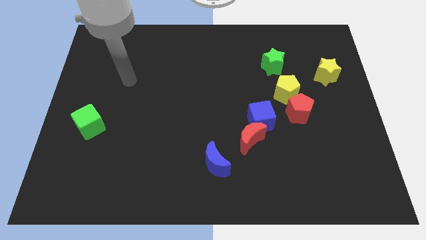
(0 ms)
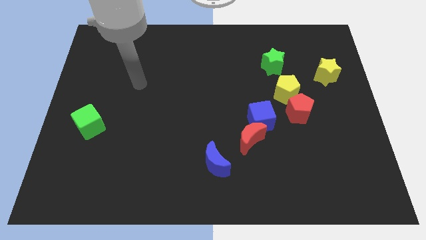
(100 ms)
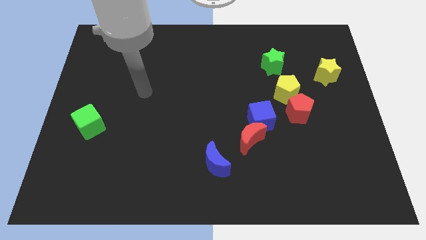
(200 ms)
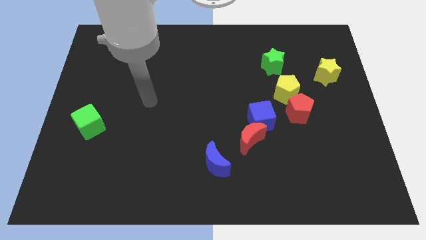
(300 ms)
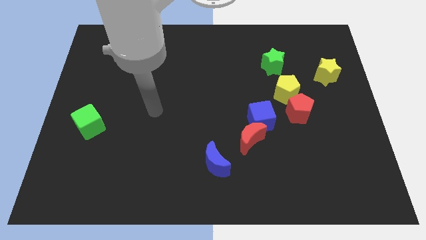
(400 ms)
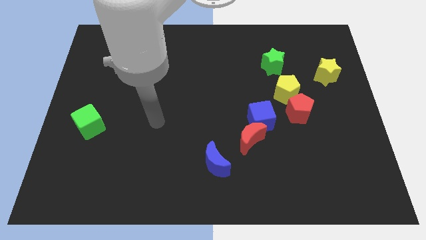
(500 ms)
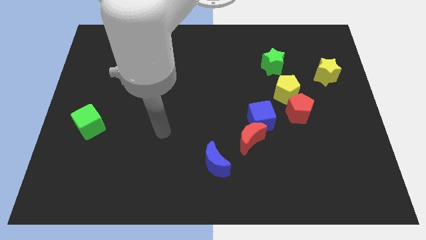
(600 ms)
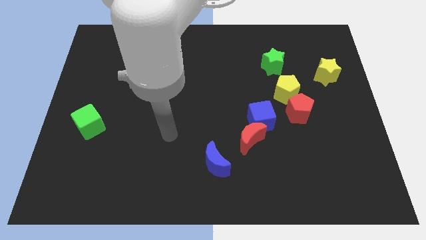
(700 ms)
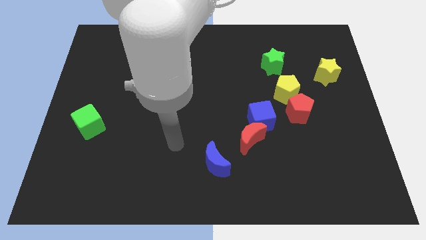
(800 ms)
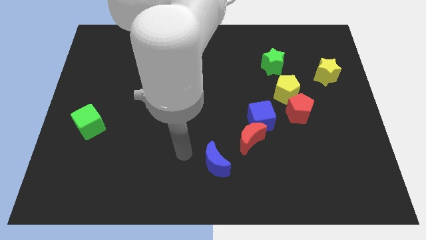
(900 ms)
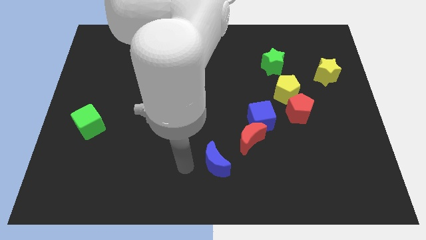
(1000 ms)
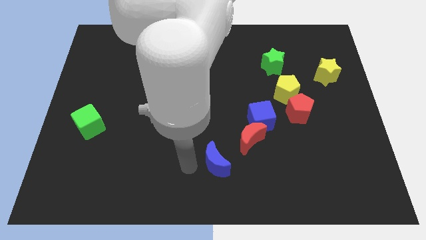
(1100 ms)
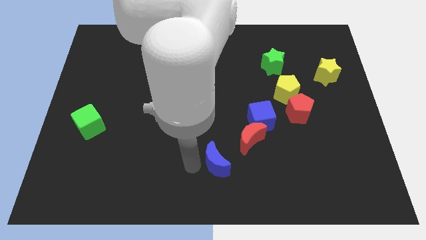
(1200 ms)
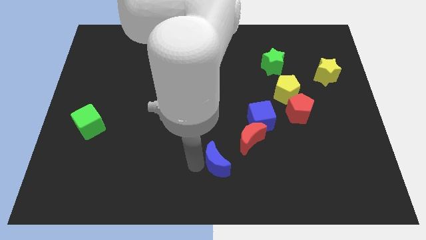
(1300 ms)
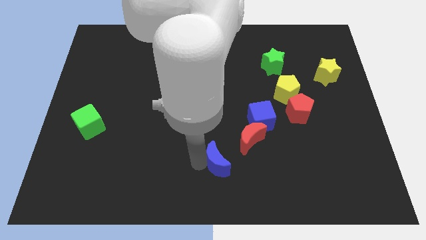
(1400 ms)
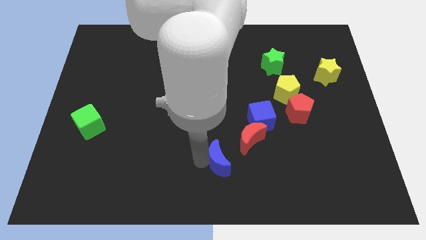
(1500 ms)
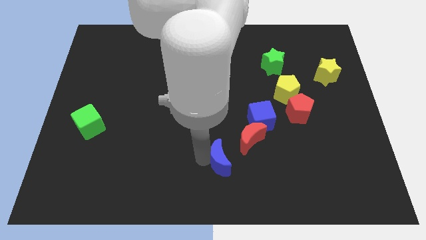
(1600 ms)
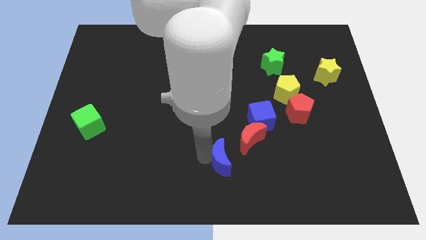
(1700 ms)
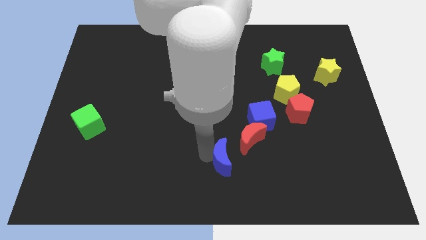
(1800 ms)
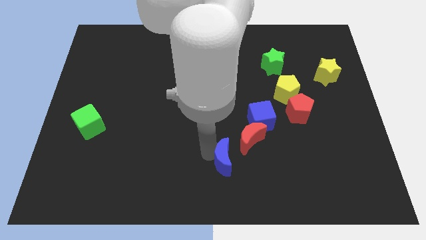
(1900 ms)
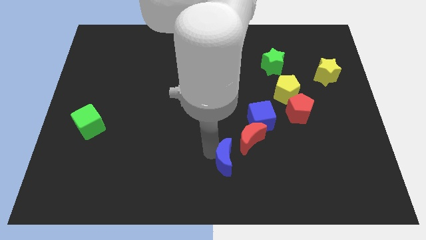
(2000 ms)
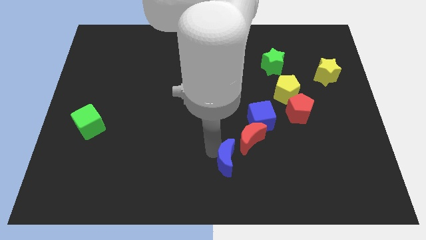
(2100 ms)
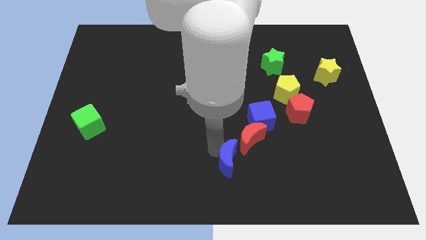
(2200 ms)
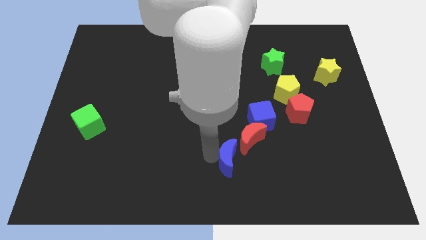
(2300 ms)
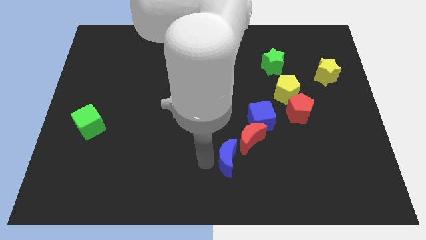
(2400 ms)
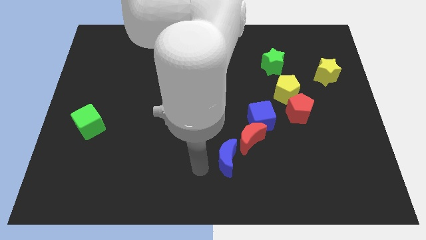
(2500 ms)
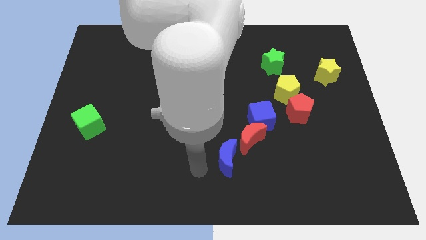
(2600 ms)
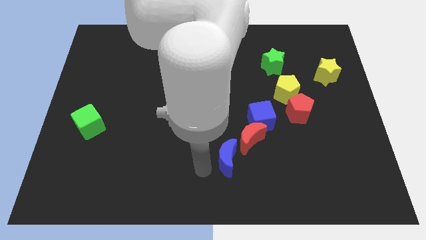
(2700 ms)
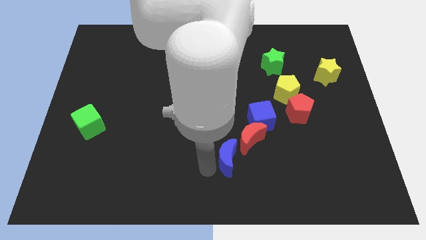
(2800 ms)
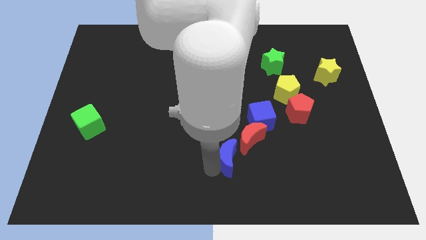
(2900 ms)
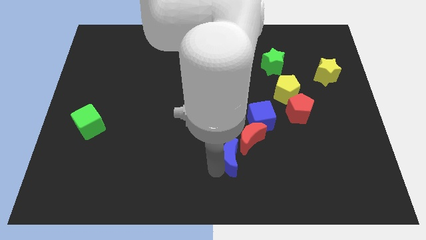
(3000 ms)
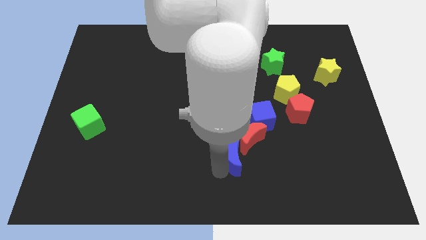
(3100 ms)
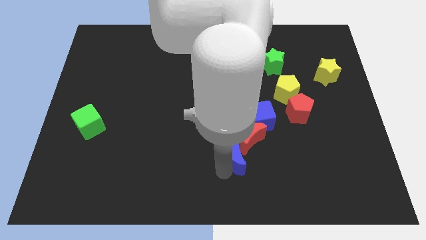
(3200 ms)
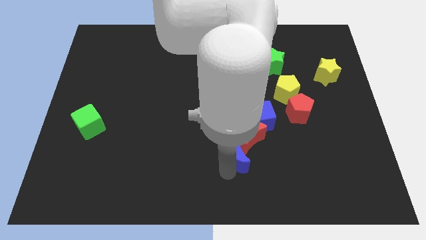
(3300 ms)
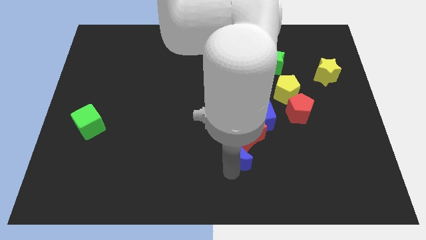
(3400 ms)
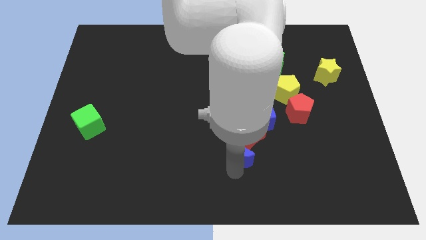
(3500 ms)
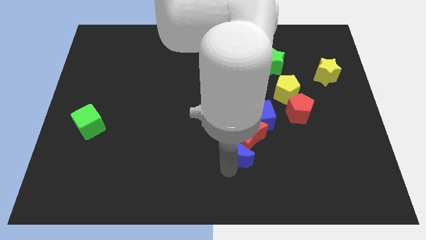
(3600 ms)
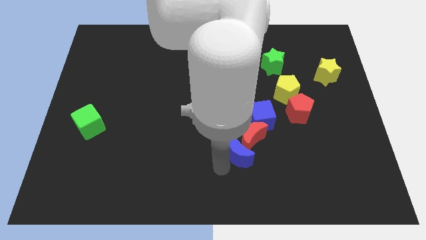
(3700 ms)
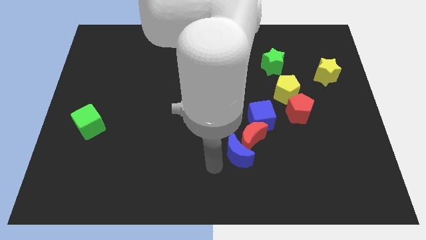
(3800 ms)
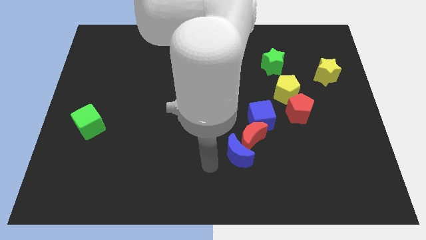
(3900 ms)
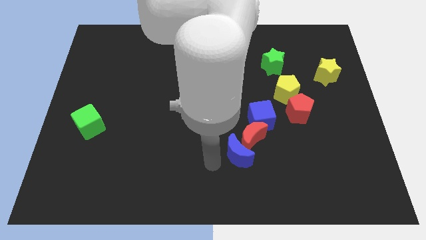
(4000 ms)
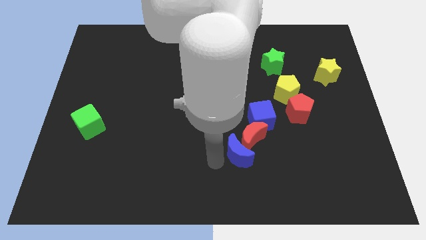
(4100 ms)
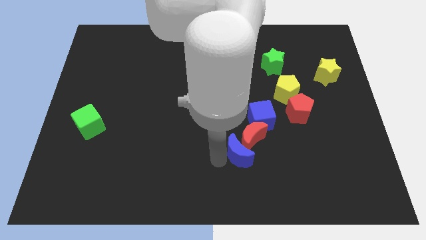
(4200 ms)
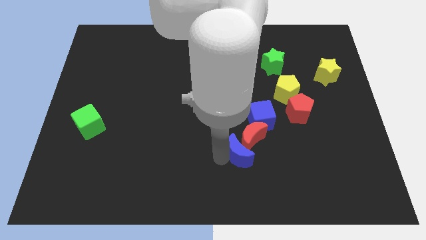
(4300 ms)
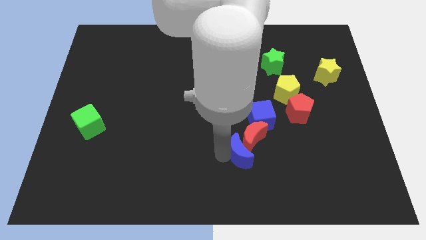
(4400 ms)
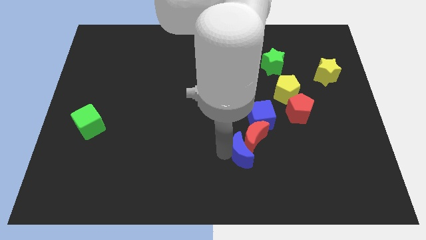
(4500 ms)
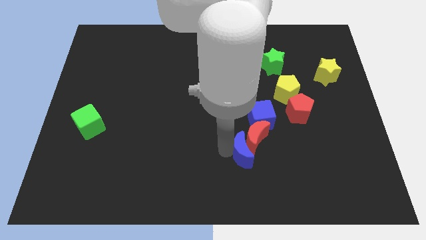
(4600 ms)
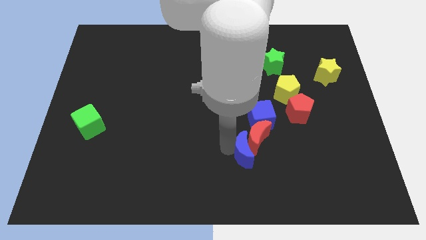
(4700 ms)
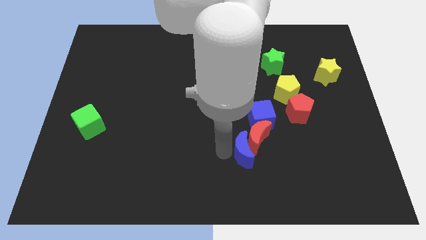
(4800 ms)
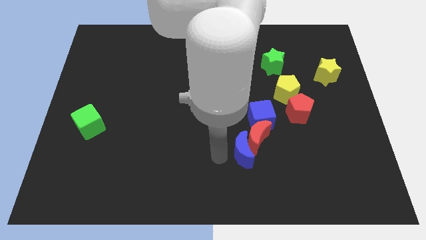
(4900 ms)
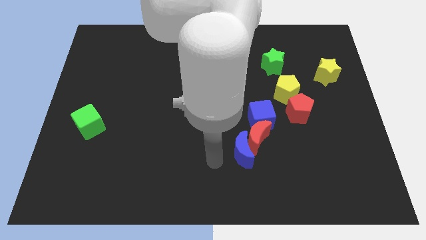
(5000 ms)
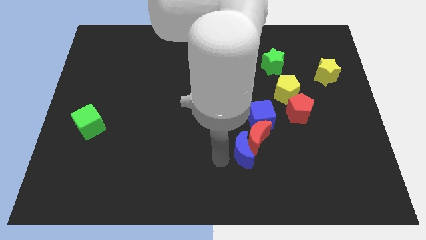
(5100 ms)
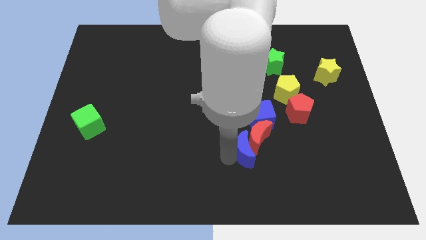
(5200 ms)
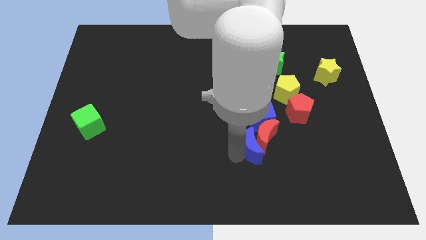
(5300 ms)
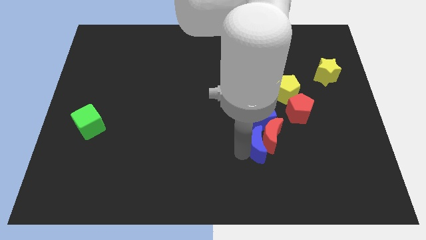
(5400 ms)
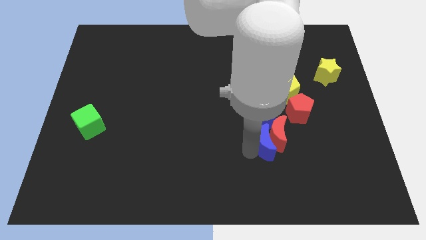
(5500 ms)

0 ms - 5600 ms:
push the blue moon to the bottom left side of the red pentagon

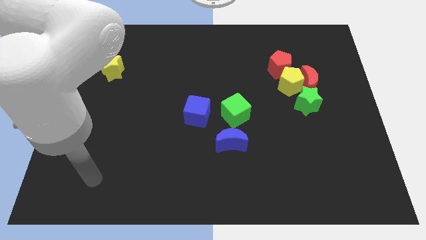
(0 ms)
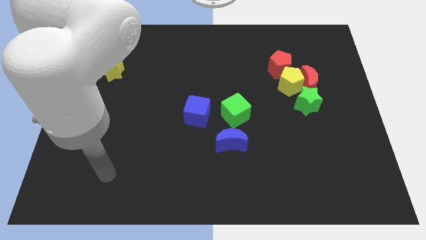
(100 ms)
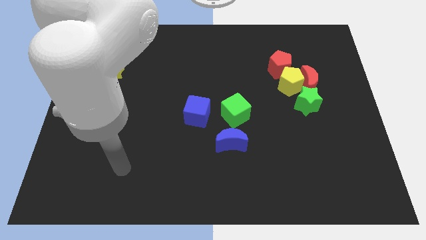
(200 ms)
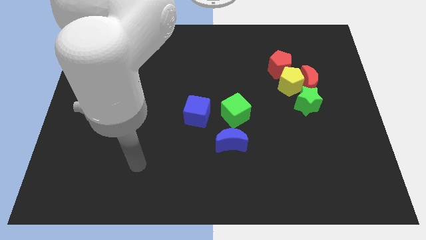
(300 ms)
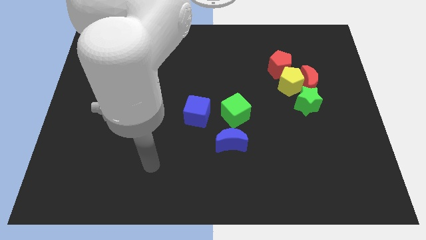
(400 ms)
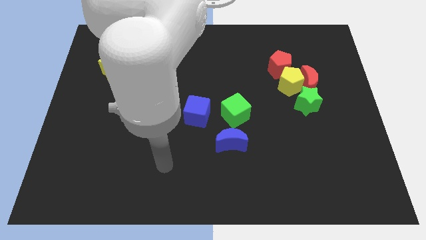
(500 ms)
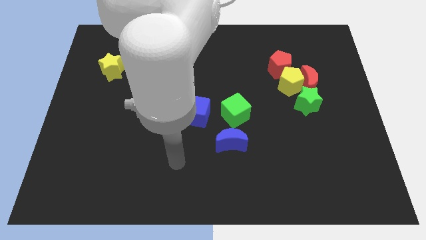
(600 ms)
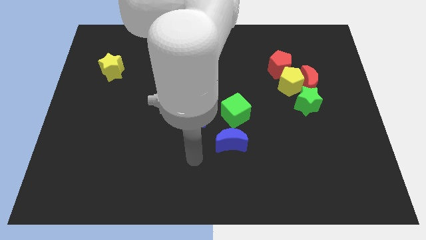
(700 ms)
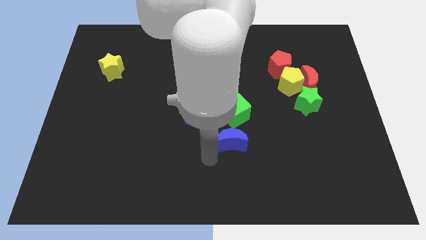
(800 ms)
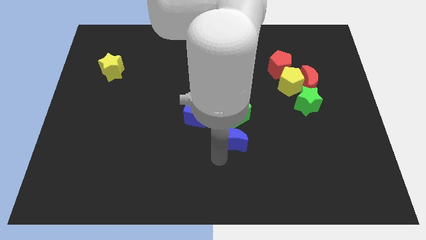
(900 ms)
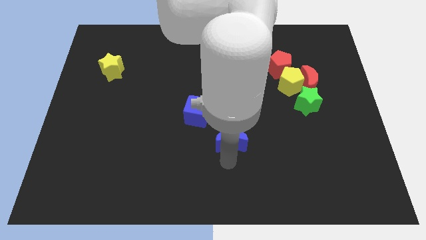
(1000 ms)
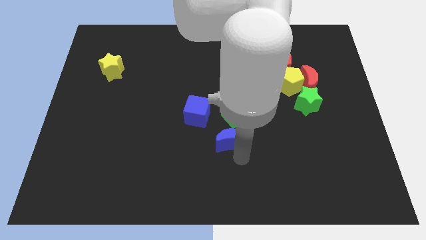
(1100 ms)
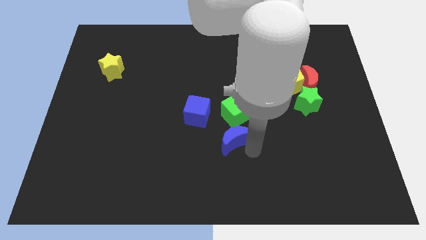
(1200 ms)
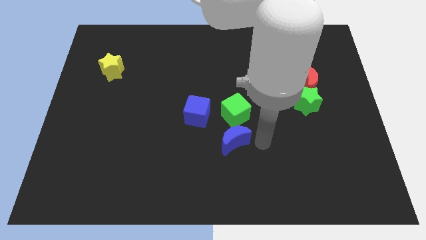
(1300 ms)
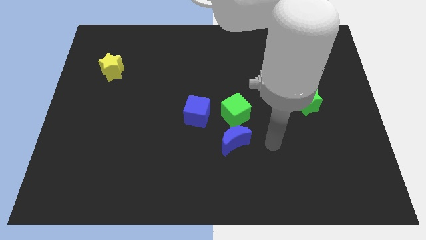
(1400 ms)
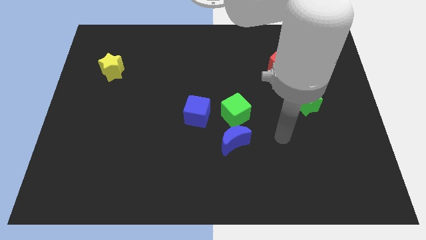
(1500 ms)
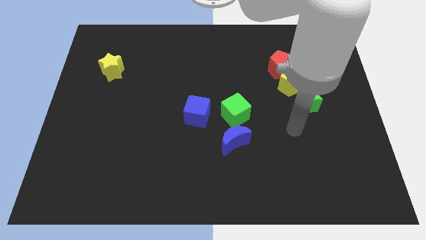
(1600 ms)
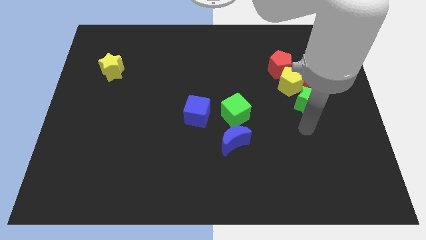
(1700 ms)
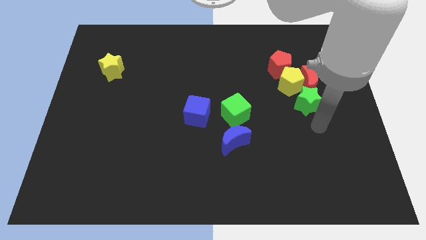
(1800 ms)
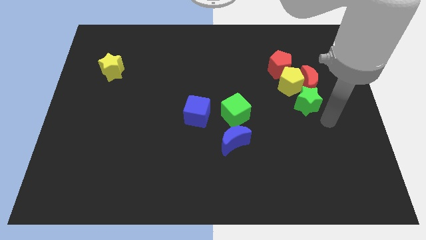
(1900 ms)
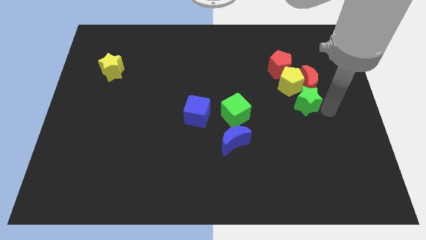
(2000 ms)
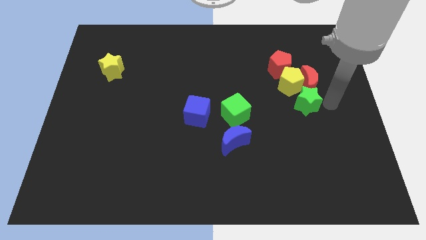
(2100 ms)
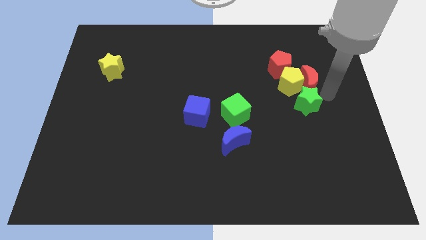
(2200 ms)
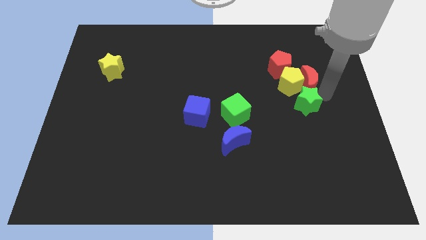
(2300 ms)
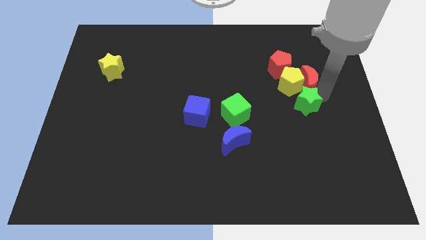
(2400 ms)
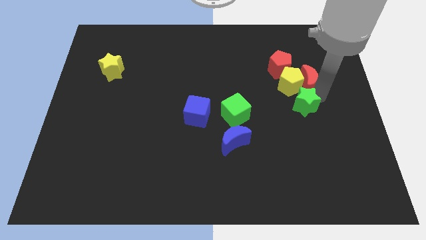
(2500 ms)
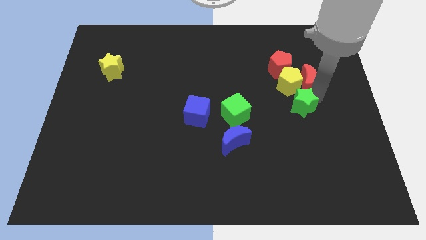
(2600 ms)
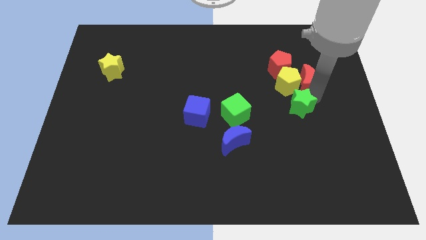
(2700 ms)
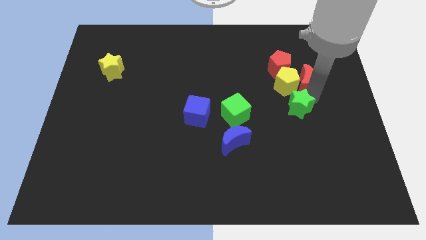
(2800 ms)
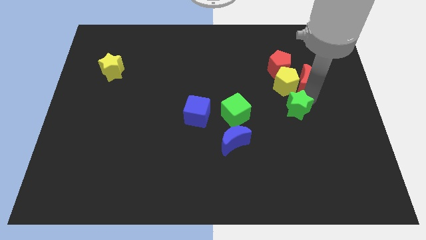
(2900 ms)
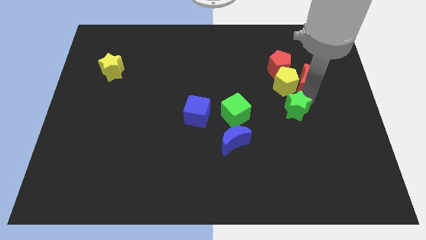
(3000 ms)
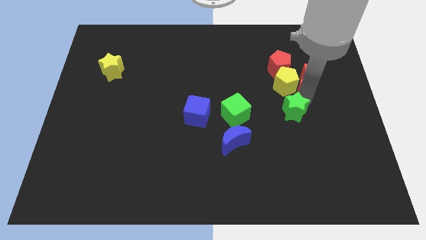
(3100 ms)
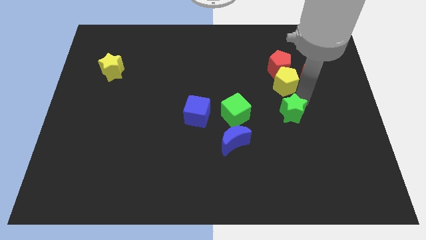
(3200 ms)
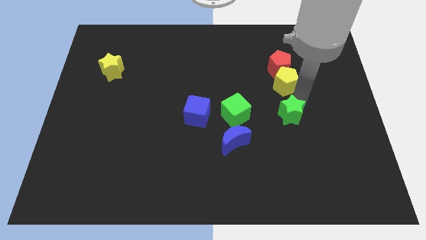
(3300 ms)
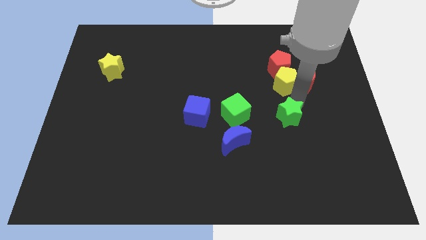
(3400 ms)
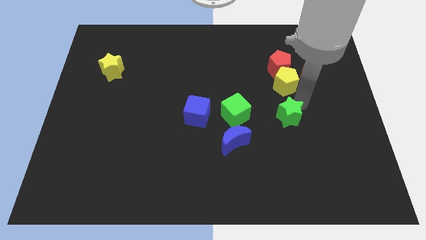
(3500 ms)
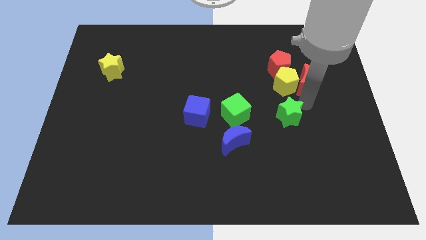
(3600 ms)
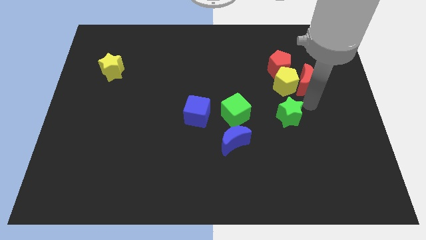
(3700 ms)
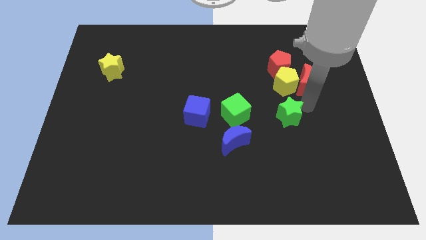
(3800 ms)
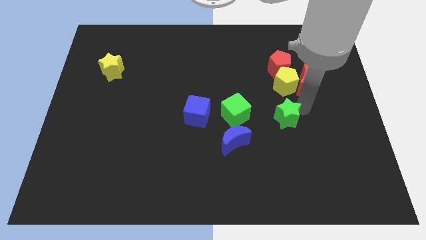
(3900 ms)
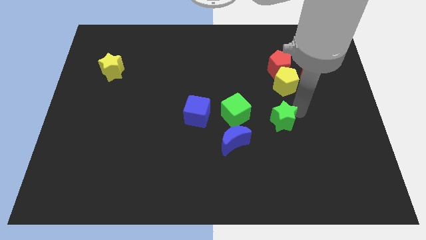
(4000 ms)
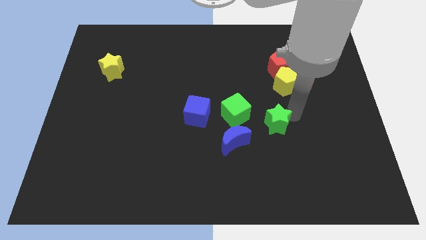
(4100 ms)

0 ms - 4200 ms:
slide the green star diagonally down and to the right of the green cube
